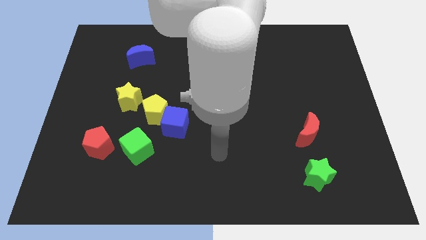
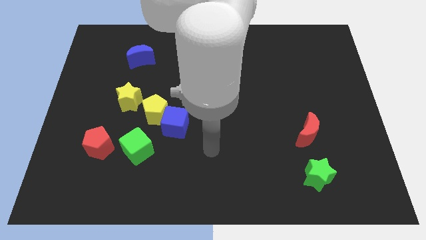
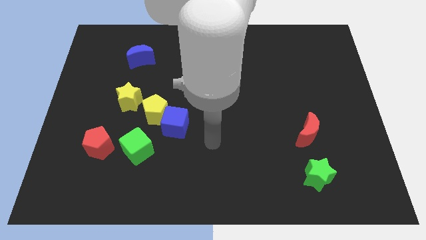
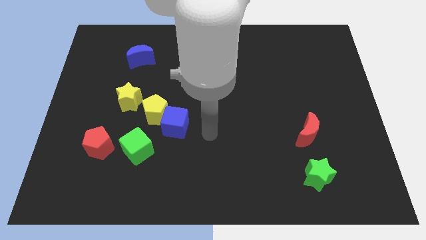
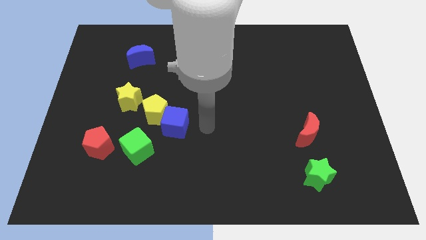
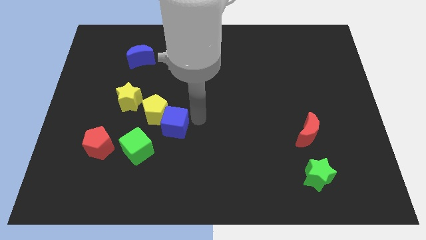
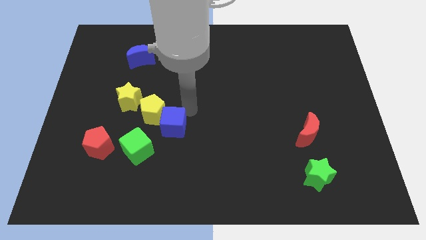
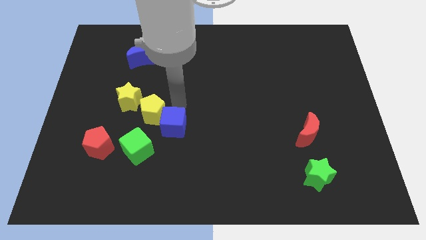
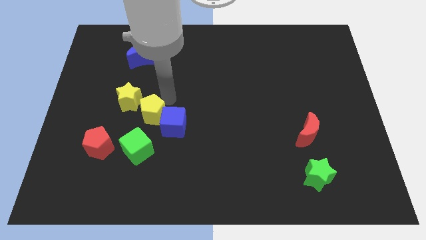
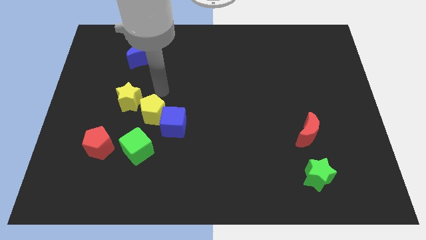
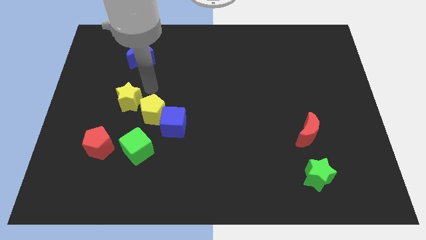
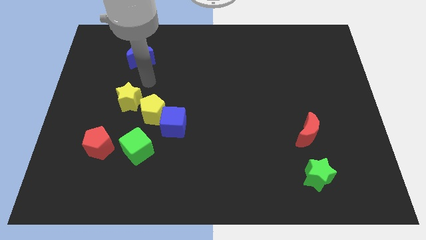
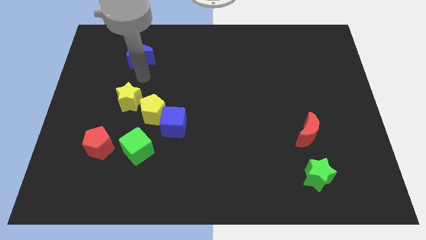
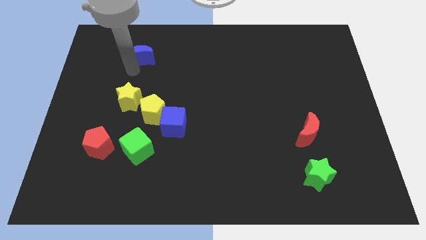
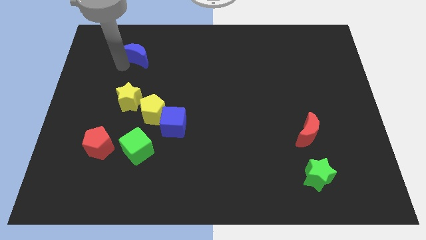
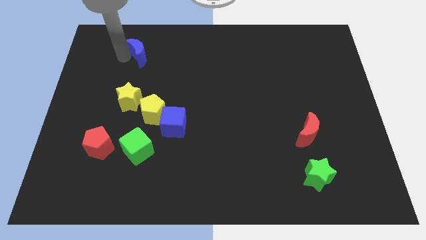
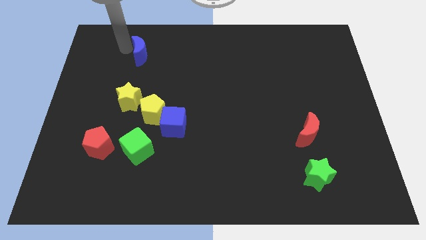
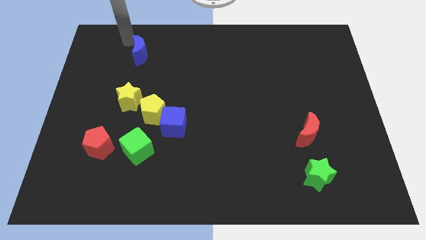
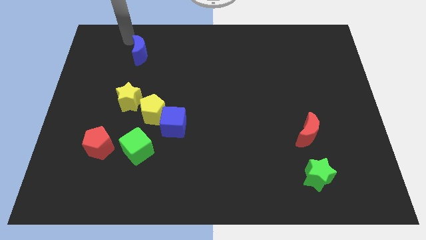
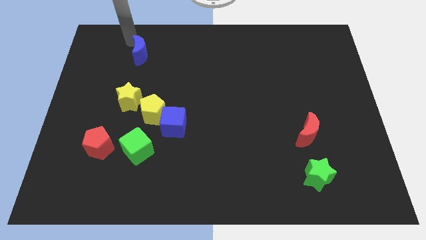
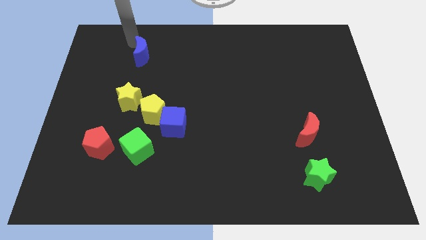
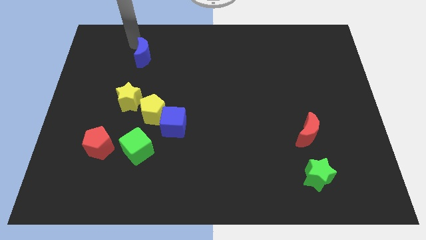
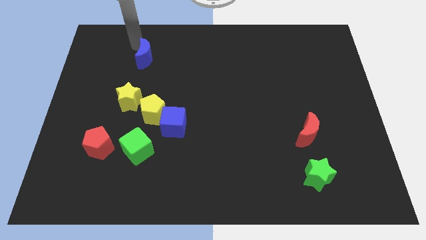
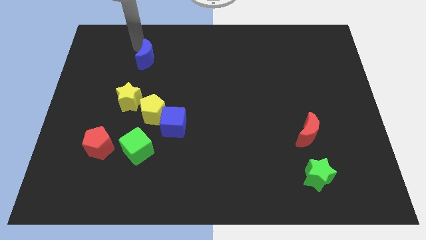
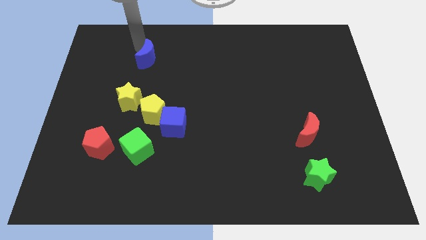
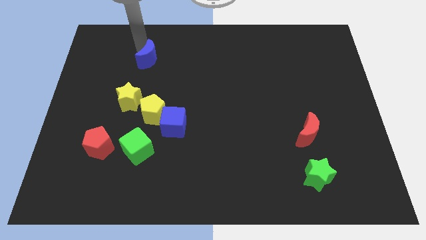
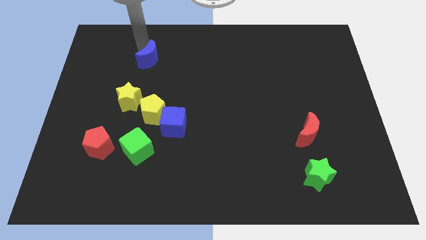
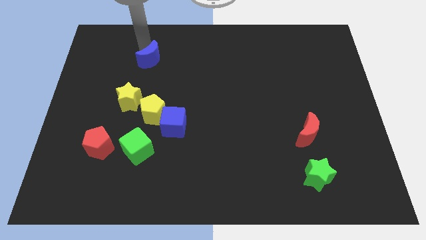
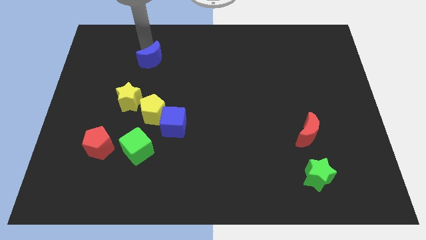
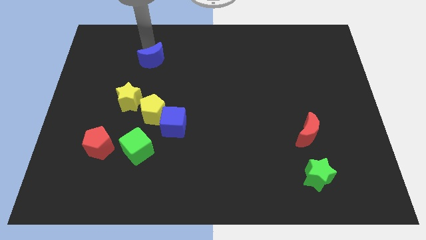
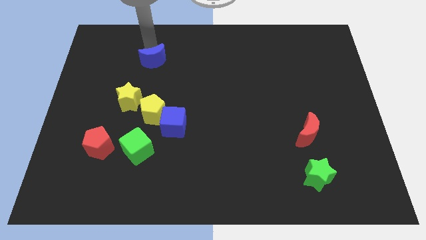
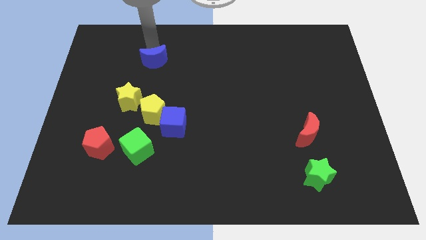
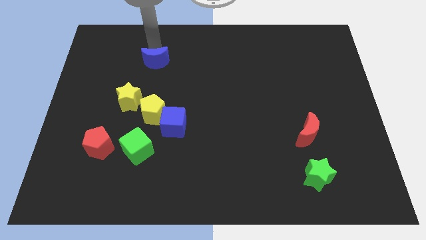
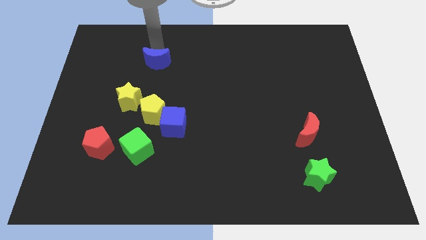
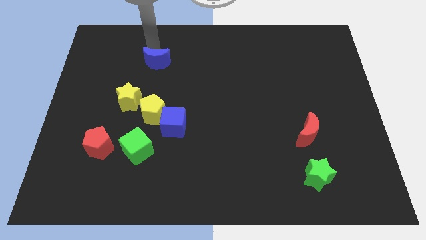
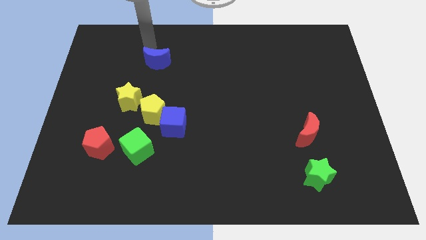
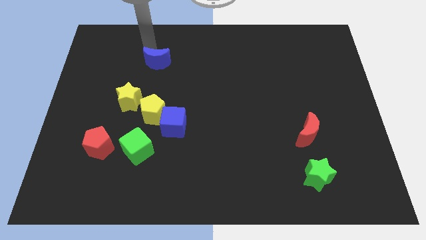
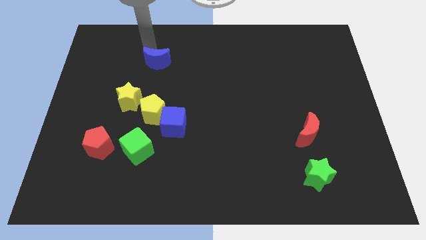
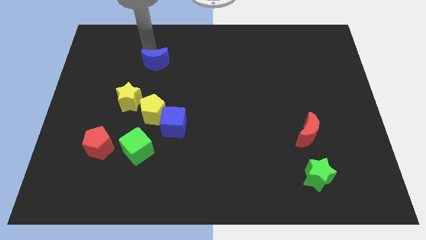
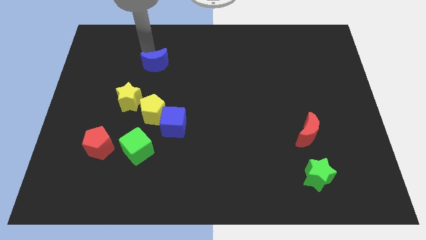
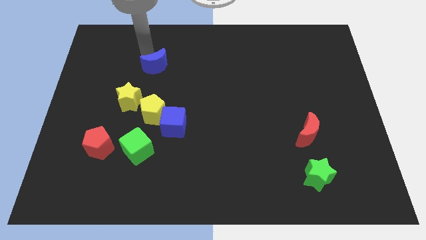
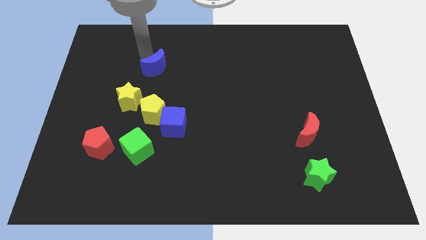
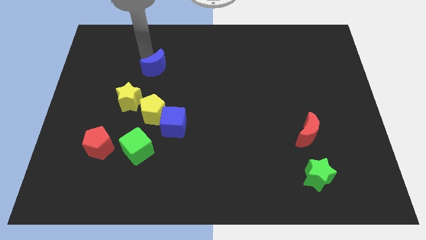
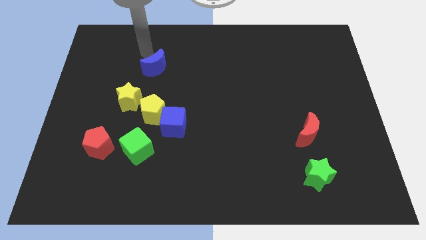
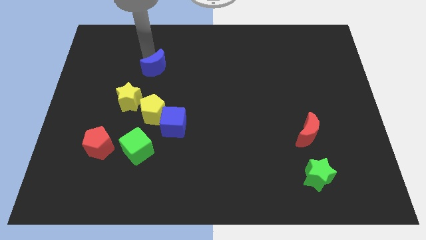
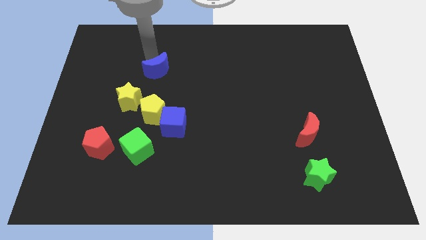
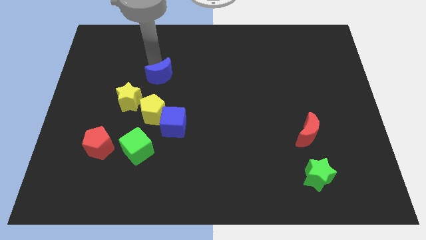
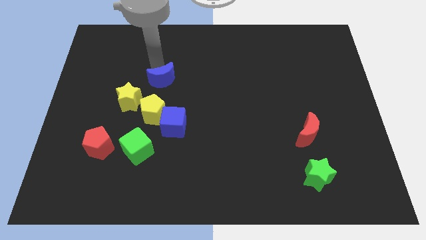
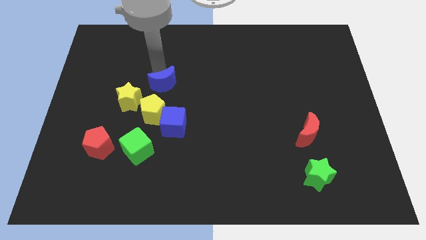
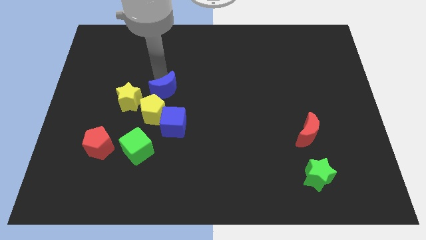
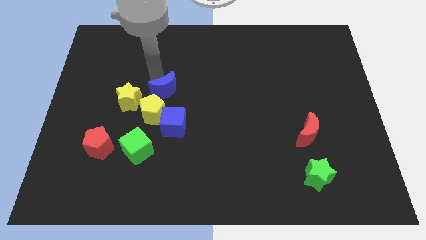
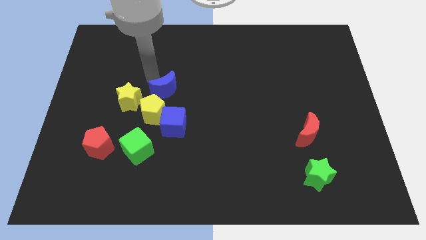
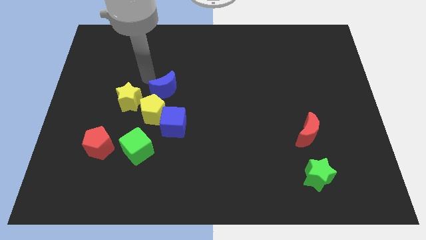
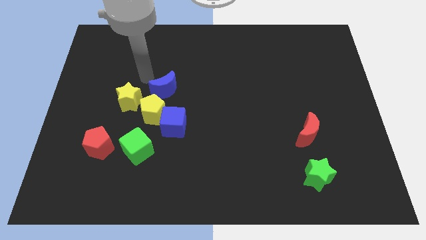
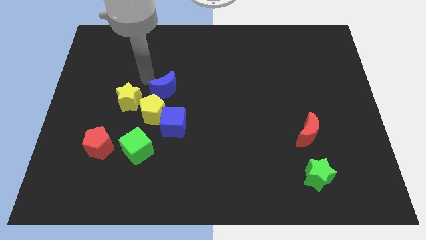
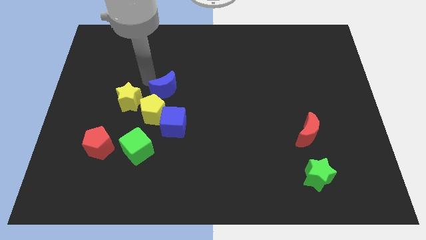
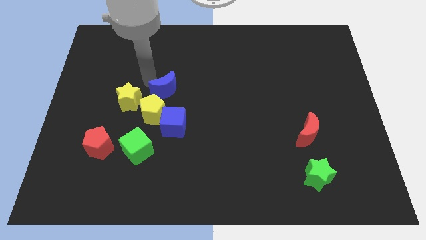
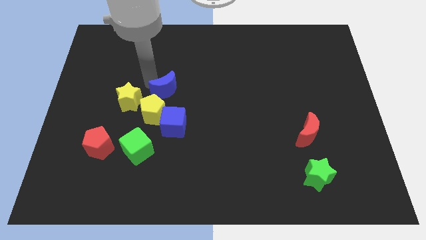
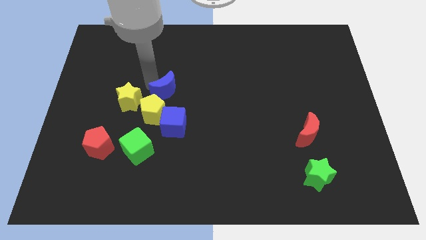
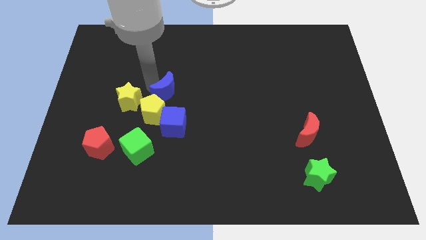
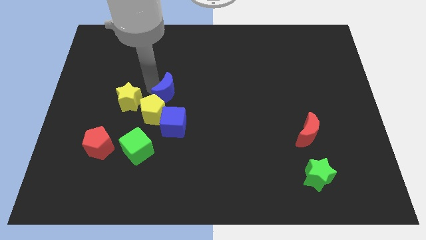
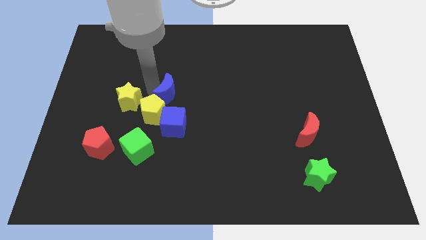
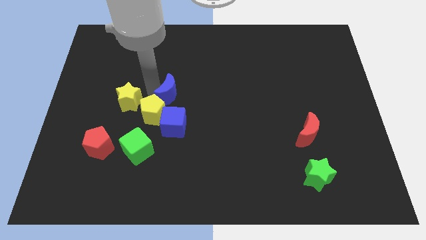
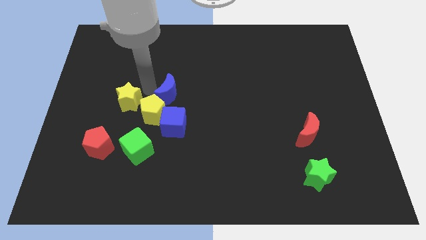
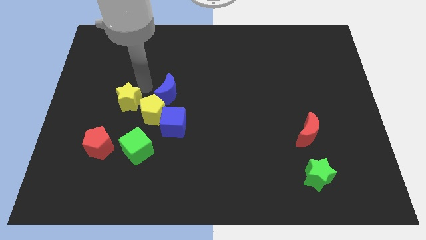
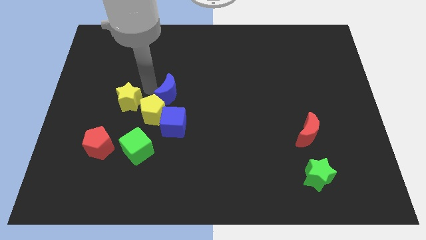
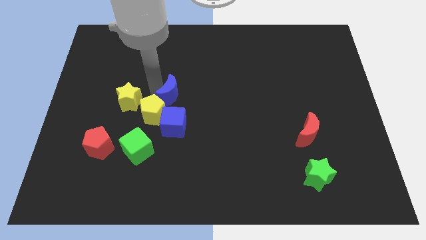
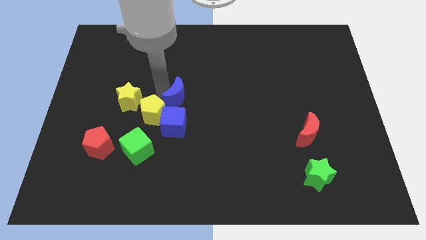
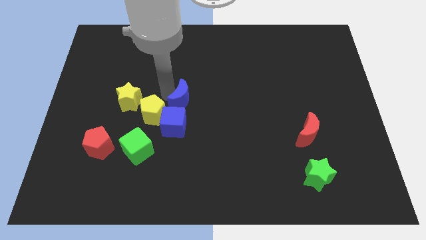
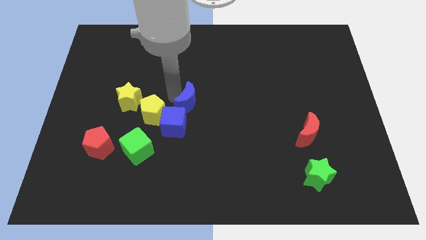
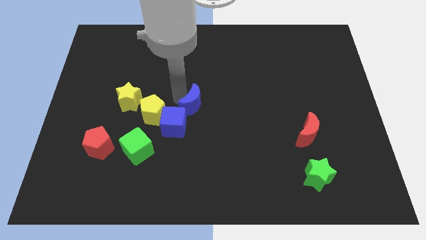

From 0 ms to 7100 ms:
move the blue moon down and right

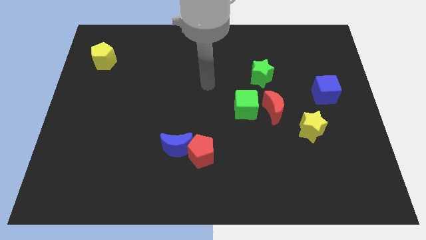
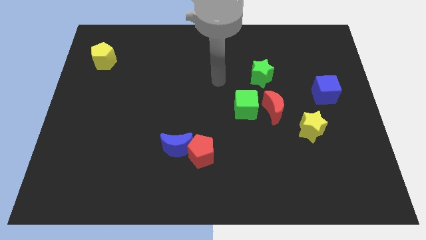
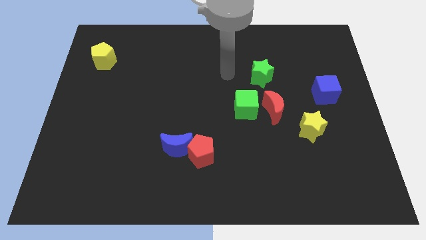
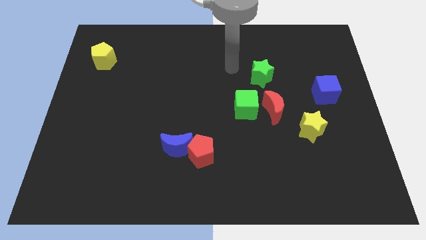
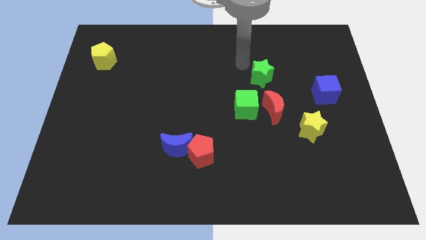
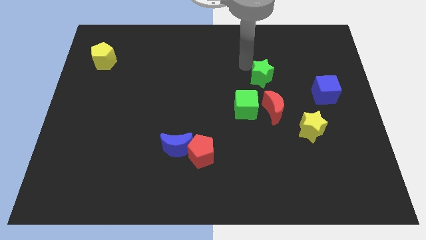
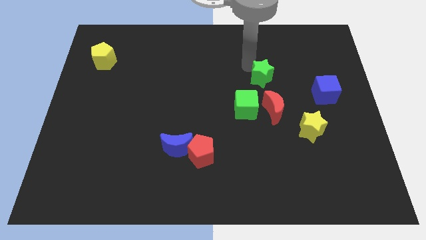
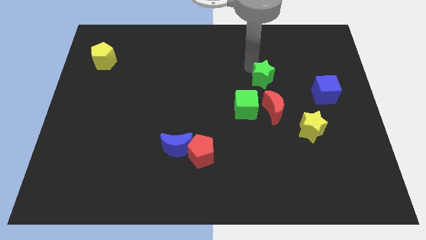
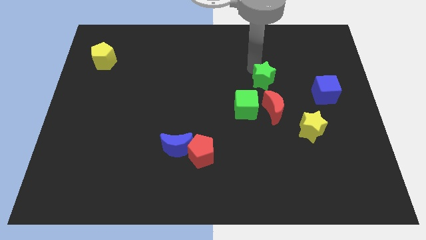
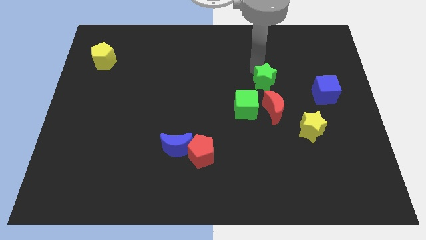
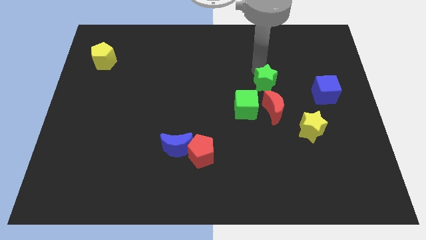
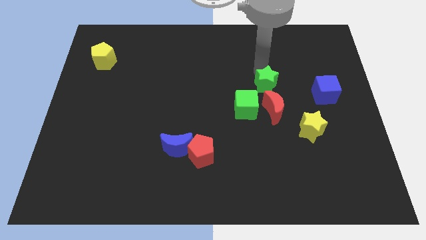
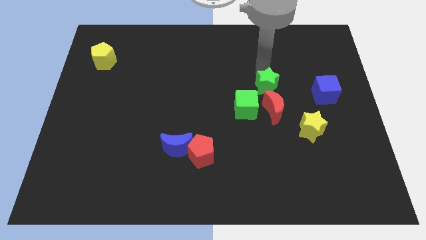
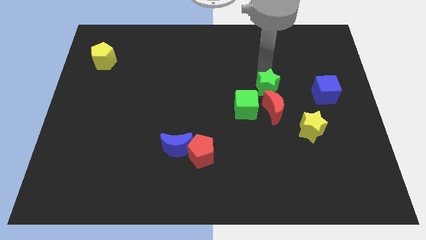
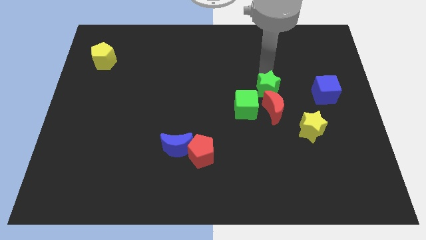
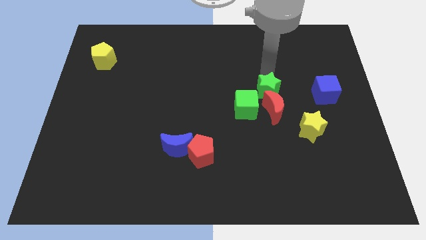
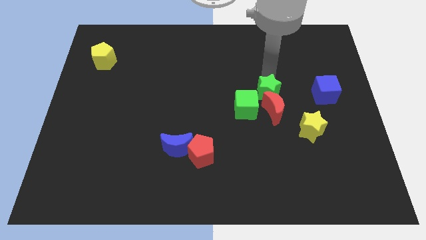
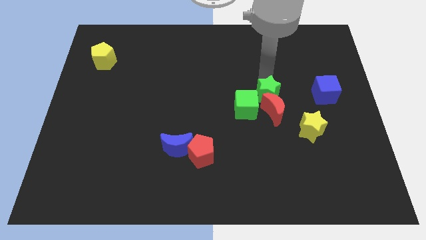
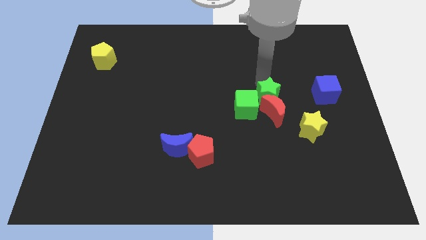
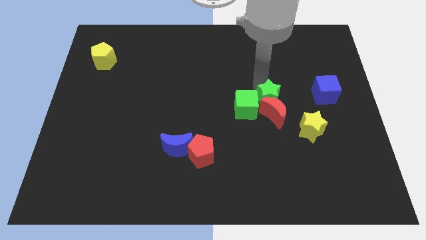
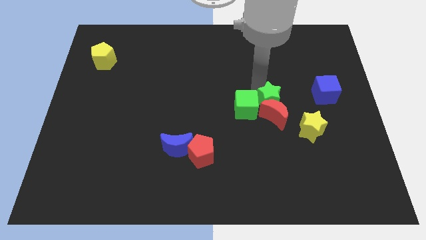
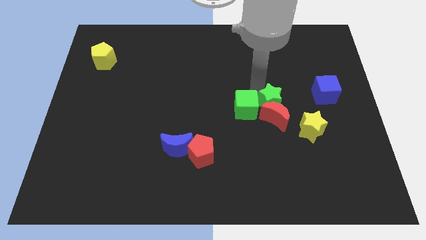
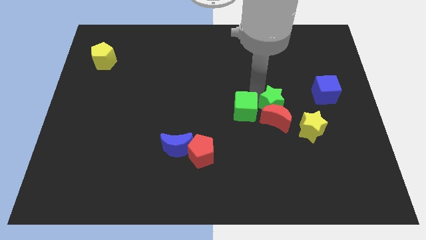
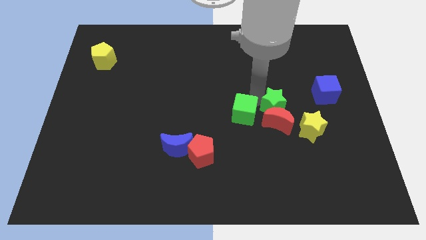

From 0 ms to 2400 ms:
slide the green star a little down and to the right
